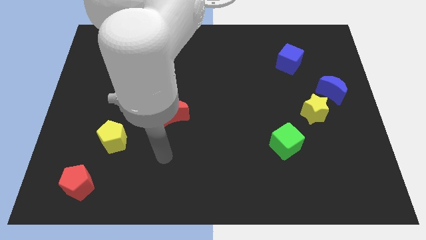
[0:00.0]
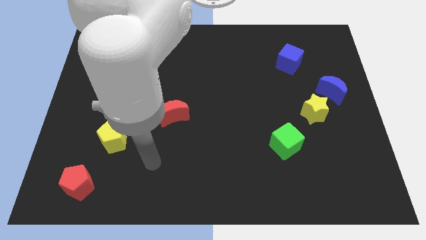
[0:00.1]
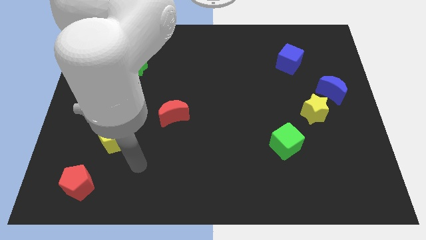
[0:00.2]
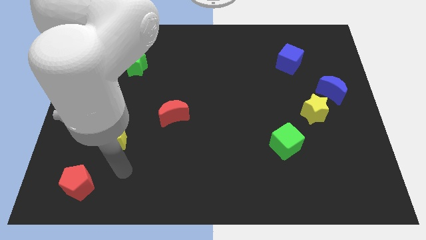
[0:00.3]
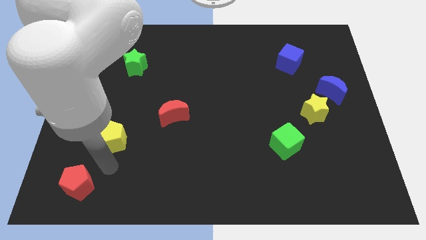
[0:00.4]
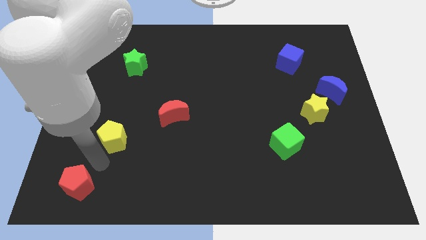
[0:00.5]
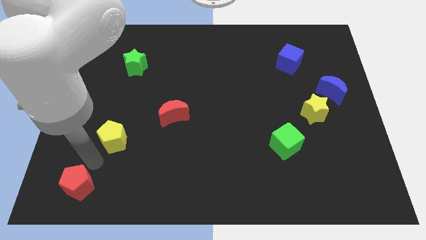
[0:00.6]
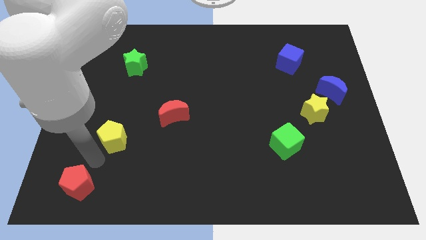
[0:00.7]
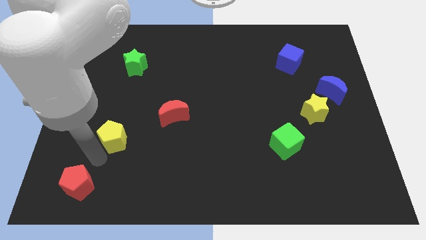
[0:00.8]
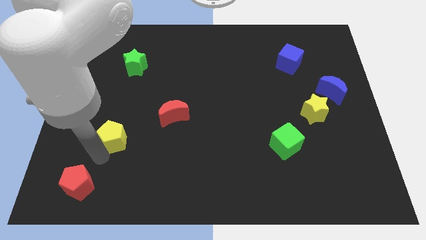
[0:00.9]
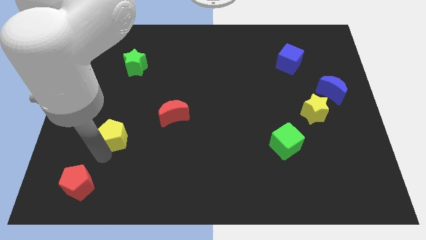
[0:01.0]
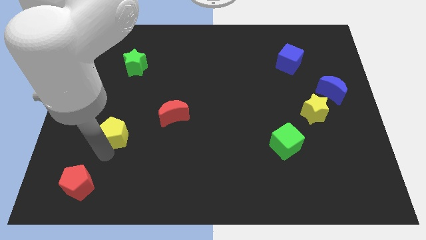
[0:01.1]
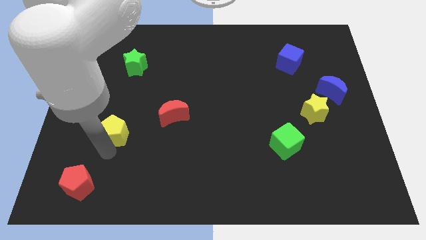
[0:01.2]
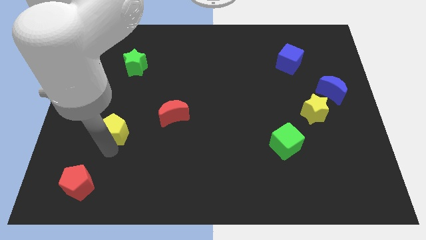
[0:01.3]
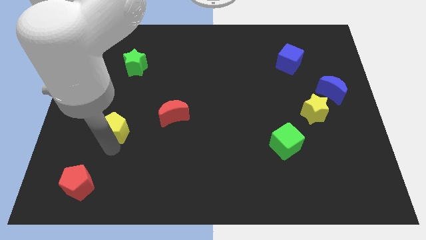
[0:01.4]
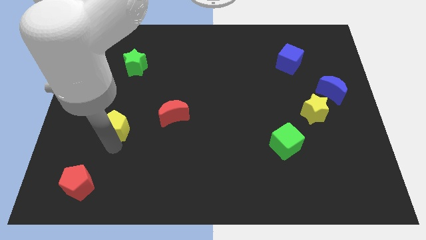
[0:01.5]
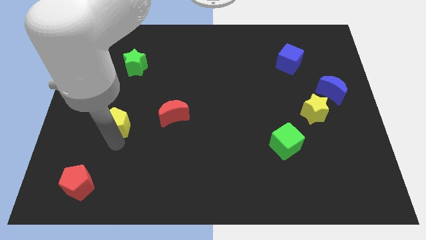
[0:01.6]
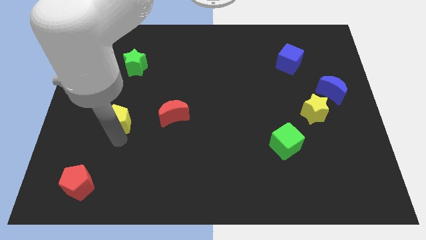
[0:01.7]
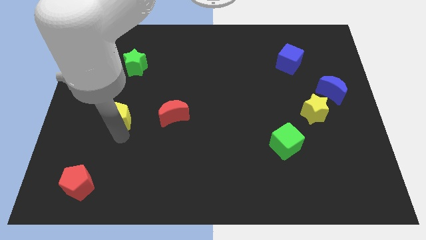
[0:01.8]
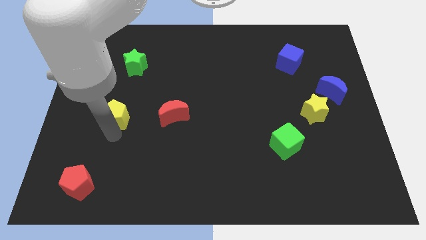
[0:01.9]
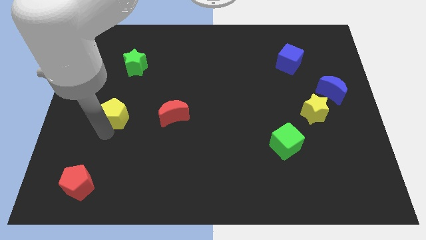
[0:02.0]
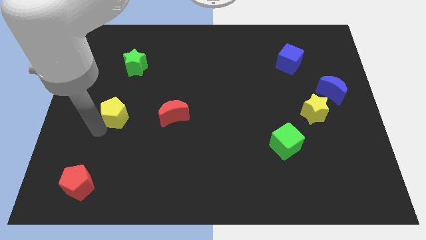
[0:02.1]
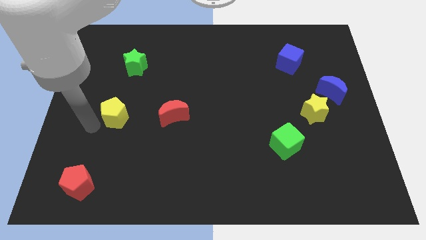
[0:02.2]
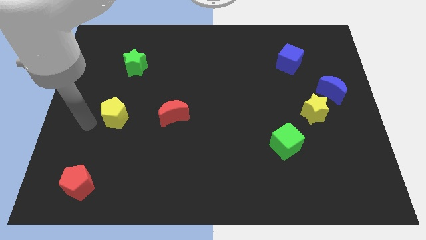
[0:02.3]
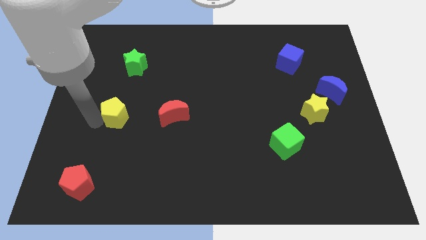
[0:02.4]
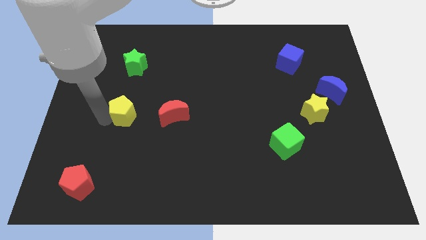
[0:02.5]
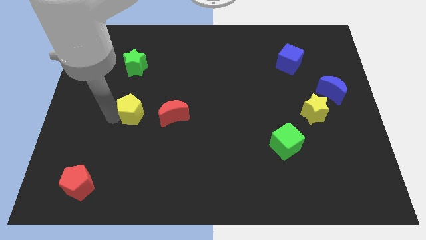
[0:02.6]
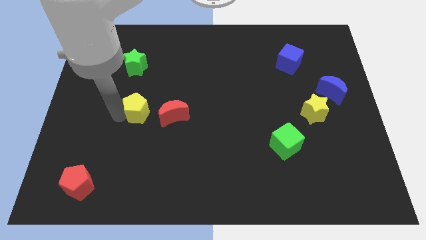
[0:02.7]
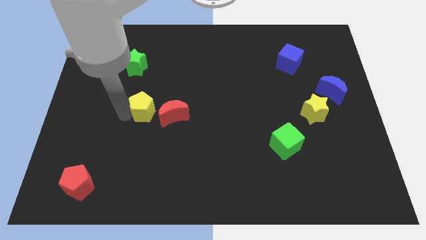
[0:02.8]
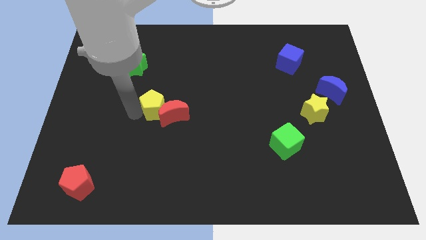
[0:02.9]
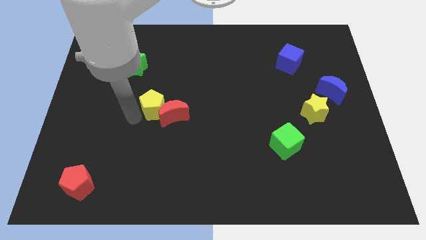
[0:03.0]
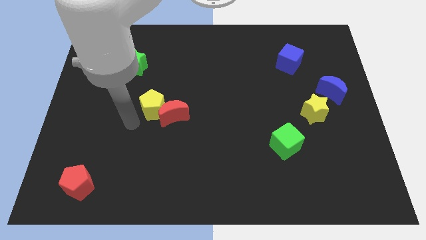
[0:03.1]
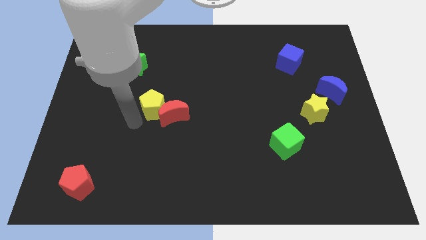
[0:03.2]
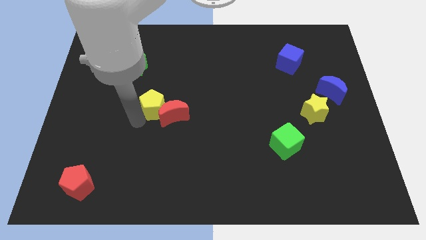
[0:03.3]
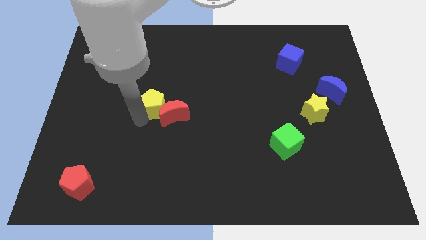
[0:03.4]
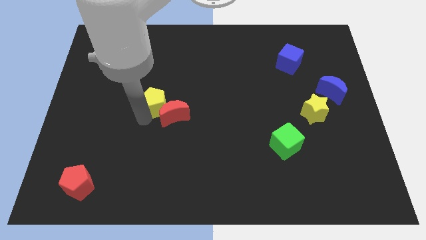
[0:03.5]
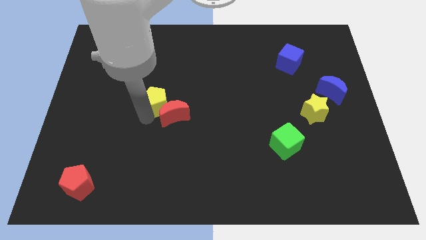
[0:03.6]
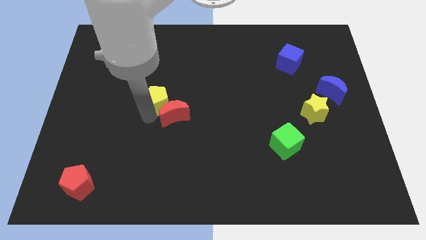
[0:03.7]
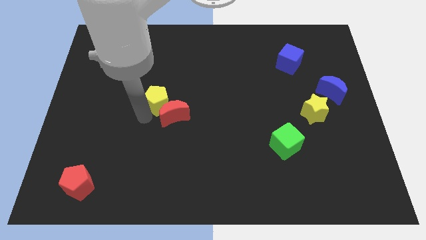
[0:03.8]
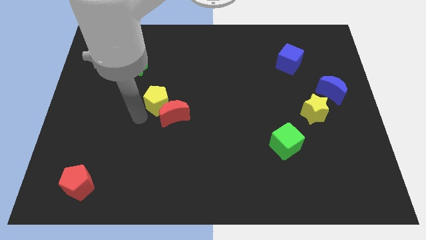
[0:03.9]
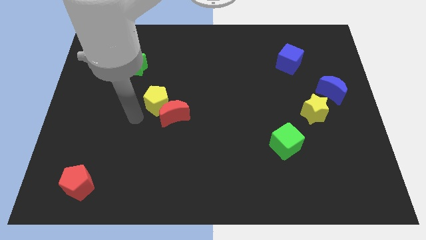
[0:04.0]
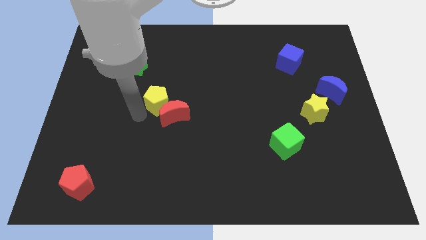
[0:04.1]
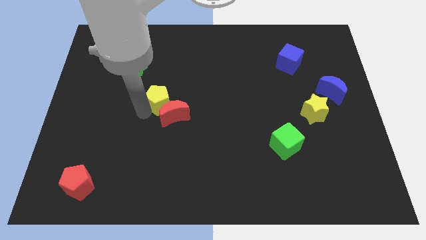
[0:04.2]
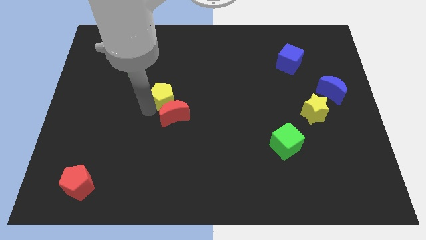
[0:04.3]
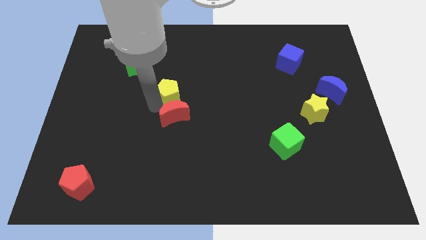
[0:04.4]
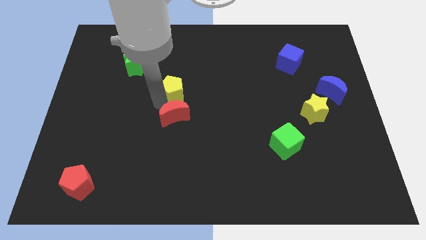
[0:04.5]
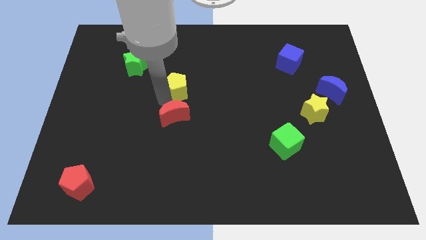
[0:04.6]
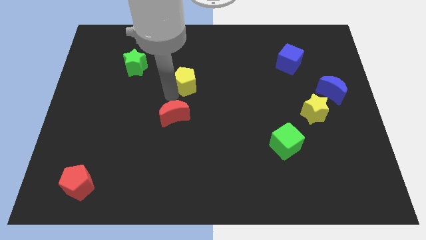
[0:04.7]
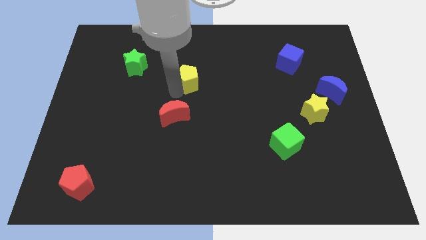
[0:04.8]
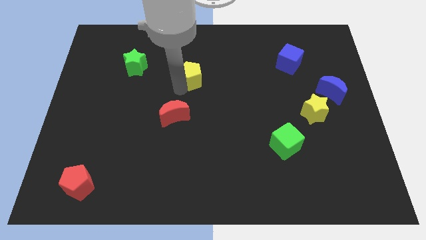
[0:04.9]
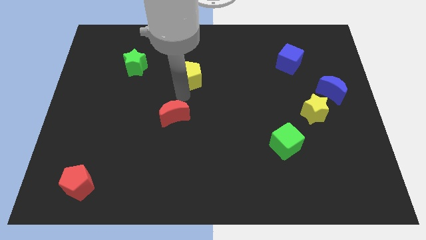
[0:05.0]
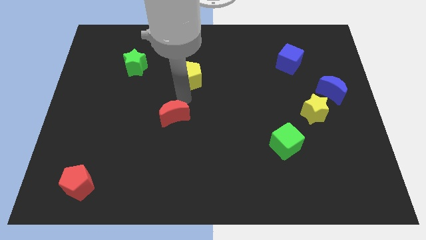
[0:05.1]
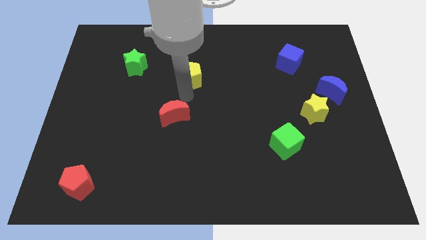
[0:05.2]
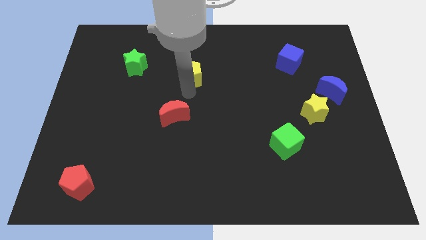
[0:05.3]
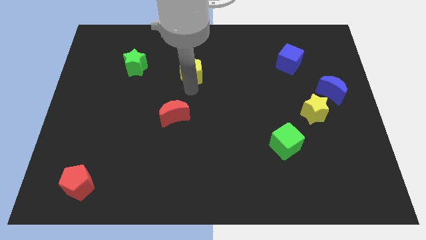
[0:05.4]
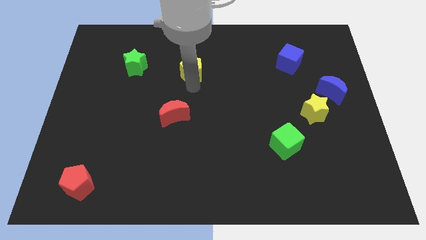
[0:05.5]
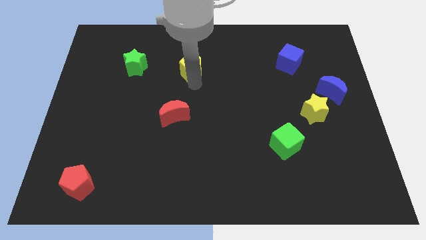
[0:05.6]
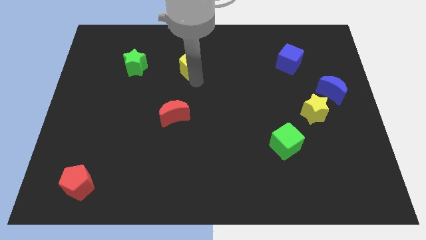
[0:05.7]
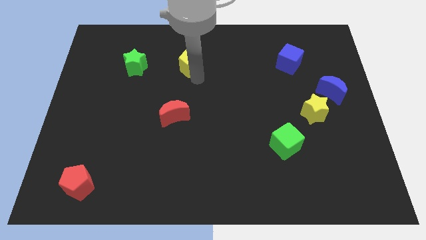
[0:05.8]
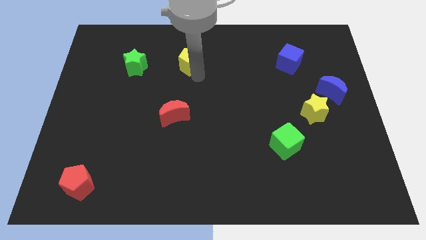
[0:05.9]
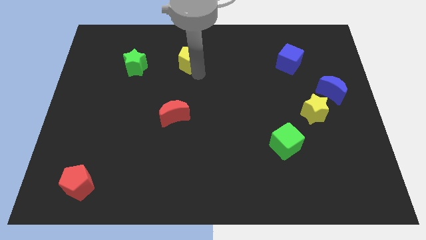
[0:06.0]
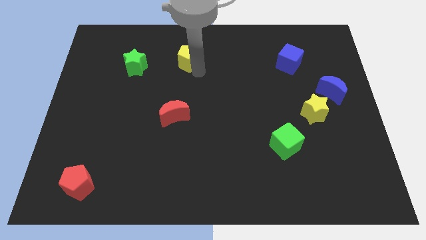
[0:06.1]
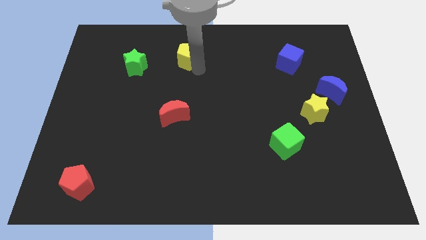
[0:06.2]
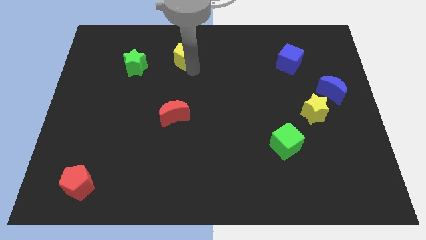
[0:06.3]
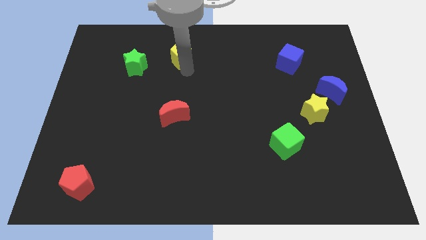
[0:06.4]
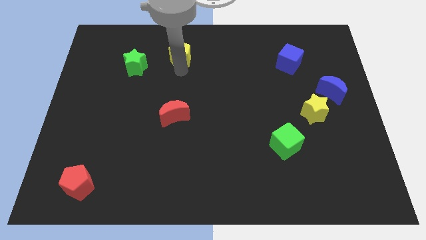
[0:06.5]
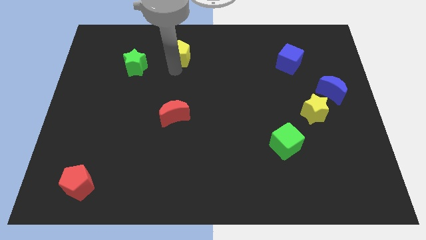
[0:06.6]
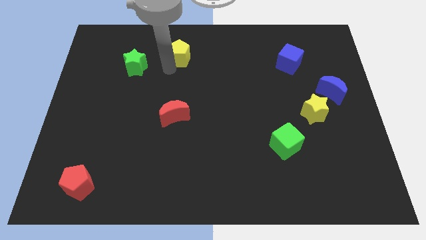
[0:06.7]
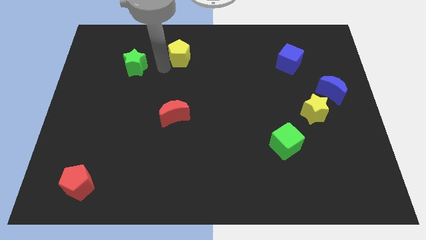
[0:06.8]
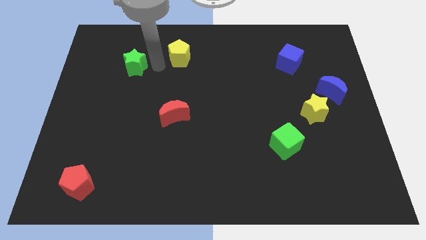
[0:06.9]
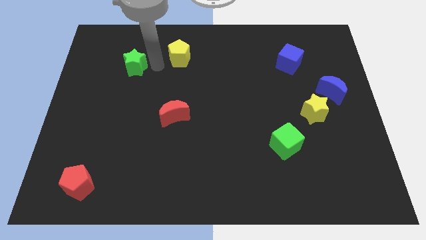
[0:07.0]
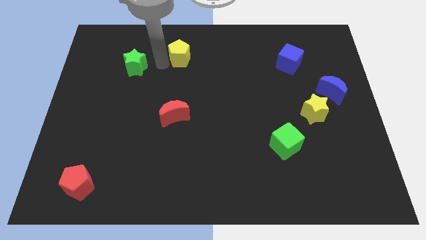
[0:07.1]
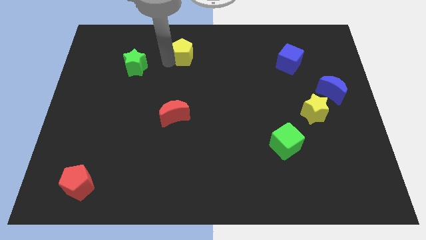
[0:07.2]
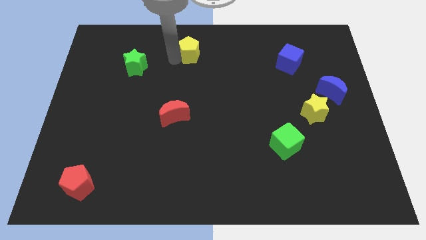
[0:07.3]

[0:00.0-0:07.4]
put the yellow pentagon to the towards your base
